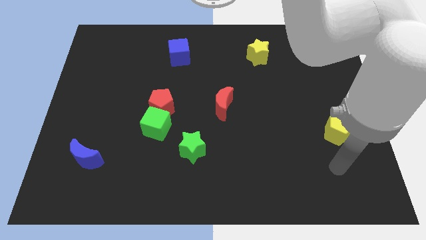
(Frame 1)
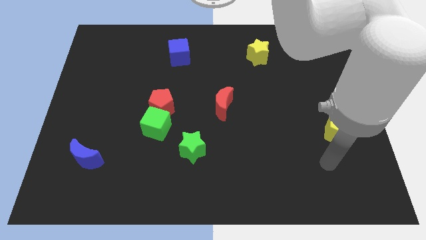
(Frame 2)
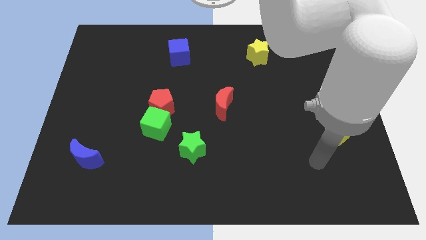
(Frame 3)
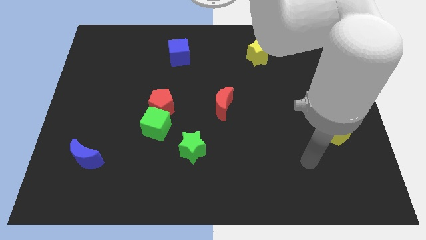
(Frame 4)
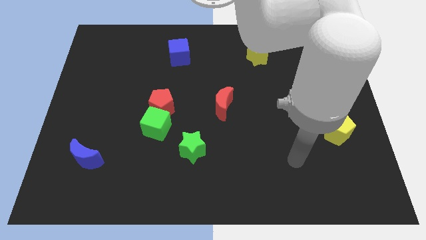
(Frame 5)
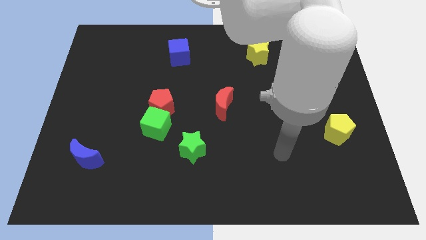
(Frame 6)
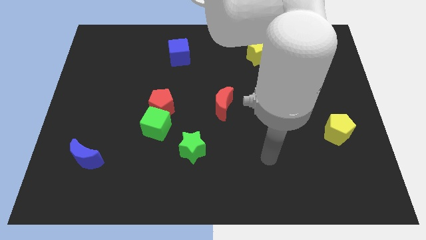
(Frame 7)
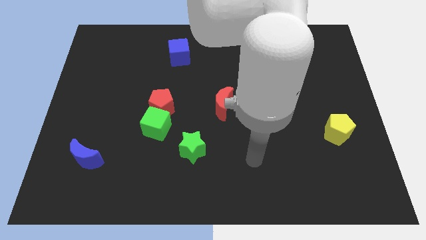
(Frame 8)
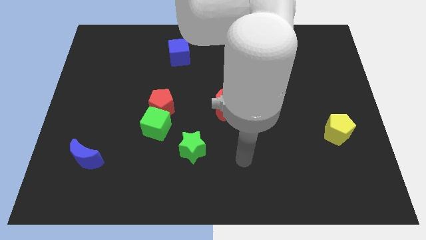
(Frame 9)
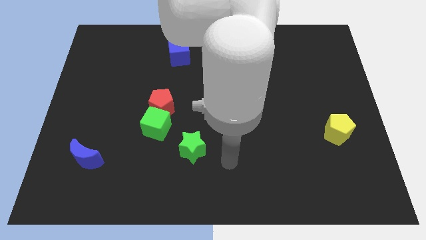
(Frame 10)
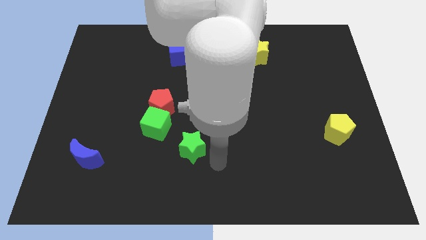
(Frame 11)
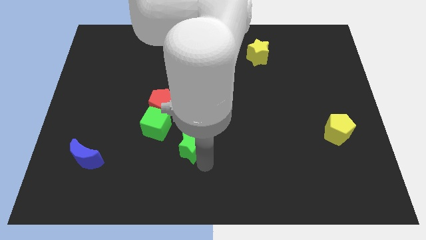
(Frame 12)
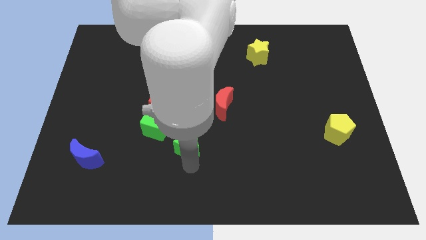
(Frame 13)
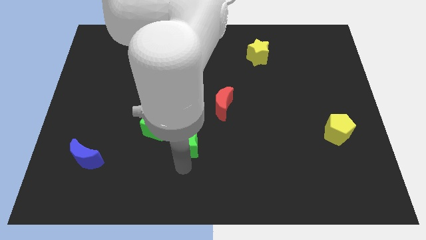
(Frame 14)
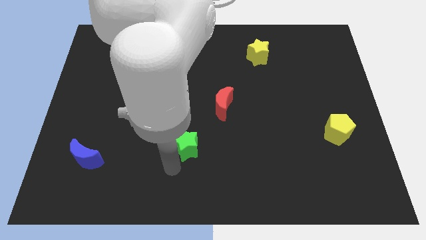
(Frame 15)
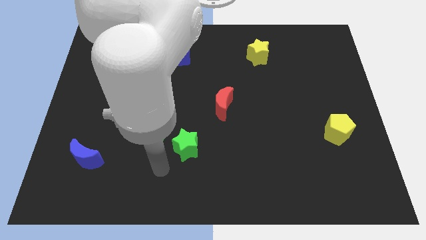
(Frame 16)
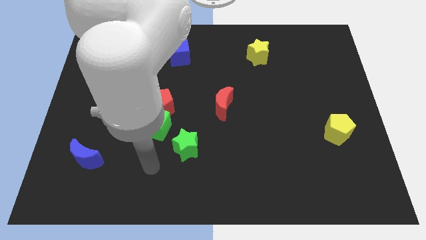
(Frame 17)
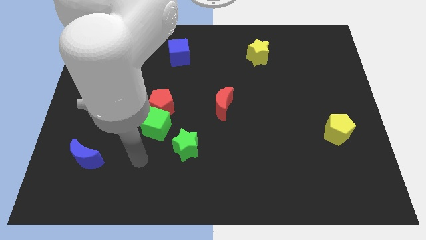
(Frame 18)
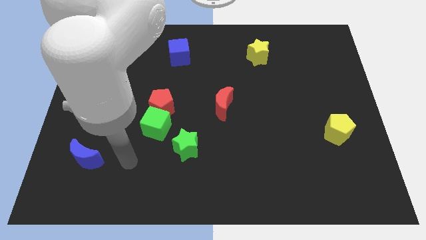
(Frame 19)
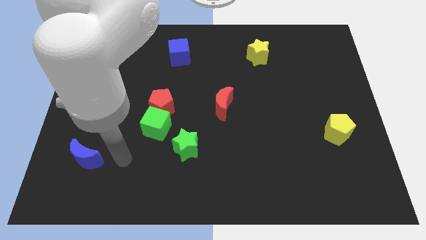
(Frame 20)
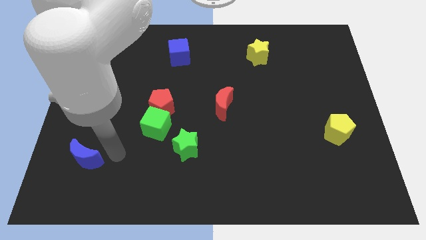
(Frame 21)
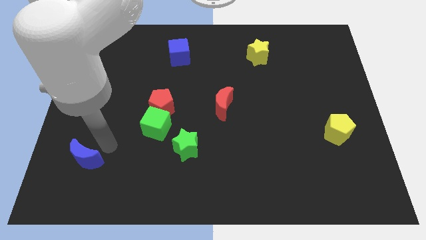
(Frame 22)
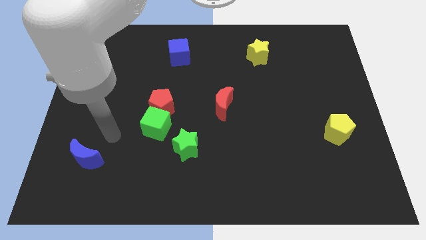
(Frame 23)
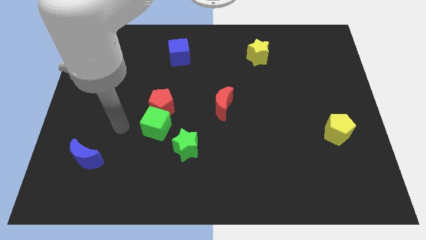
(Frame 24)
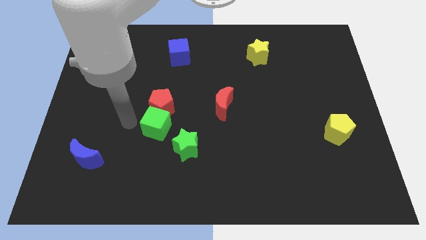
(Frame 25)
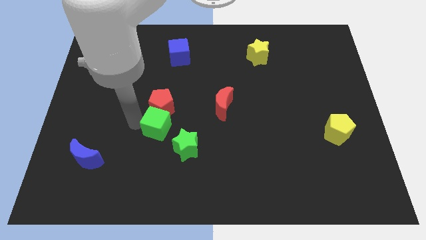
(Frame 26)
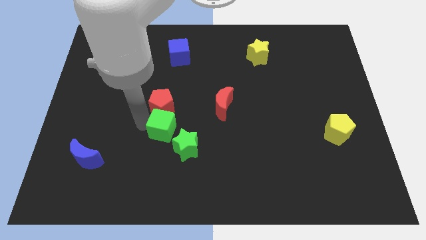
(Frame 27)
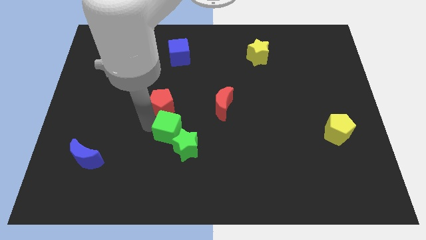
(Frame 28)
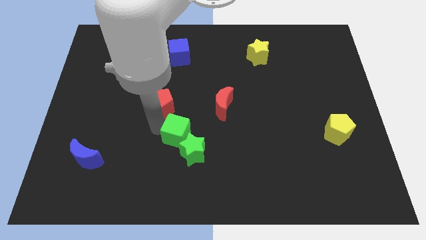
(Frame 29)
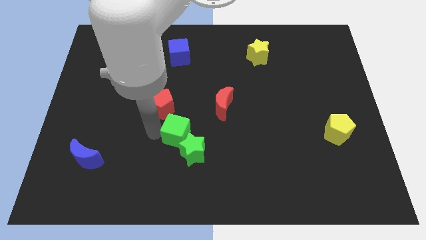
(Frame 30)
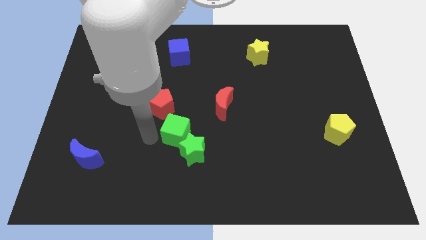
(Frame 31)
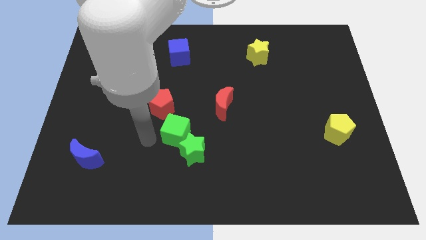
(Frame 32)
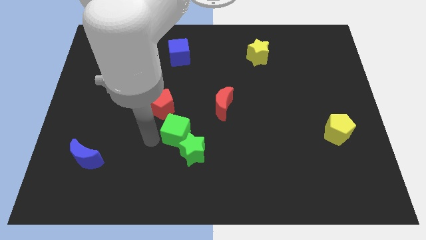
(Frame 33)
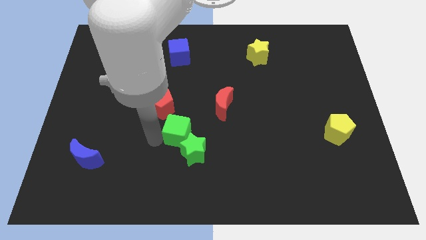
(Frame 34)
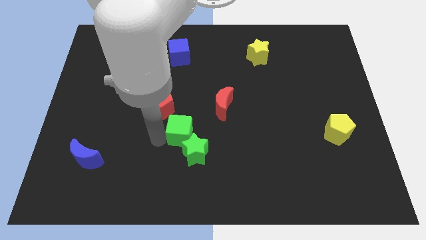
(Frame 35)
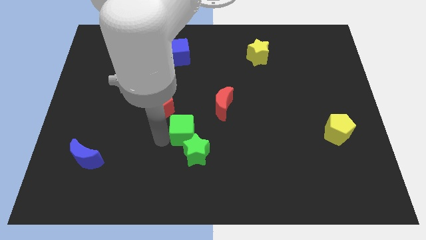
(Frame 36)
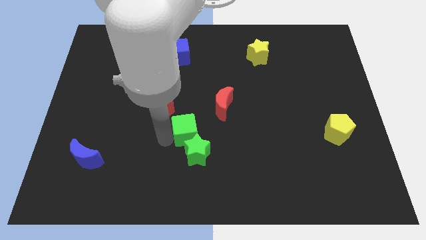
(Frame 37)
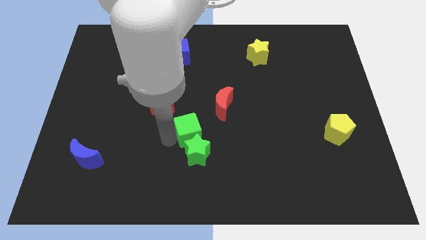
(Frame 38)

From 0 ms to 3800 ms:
slightly move the green cube right

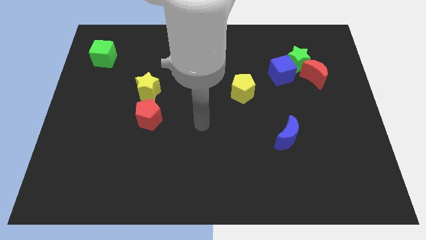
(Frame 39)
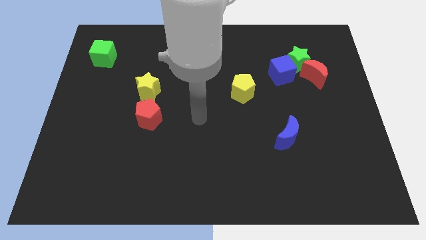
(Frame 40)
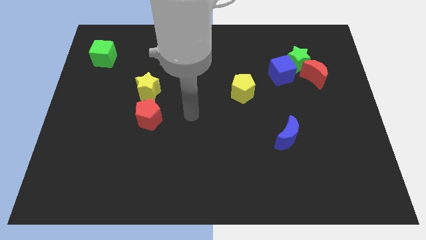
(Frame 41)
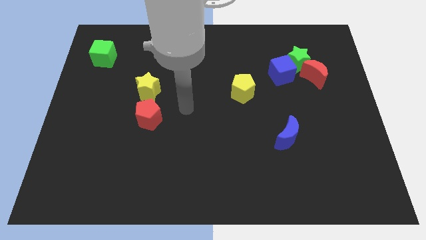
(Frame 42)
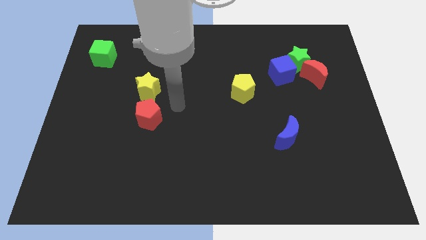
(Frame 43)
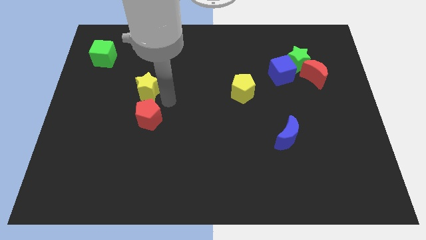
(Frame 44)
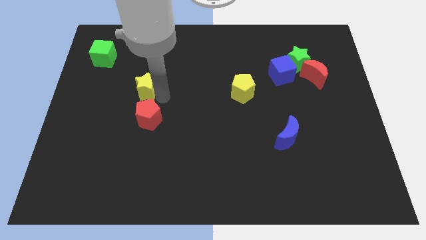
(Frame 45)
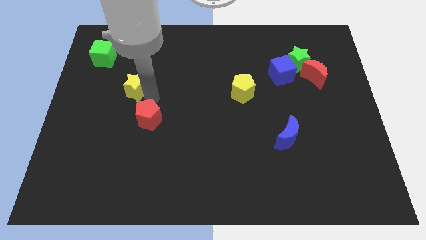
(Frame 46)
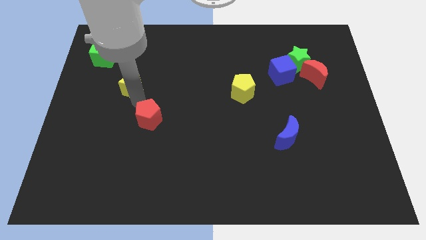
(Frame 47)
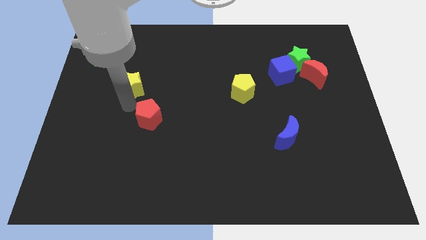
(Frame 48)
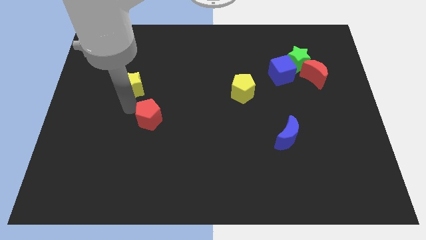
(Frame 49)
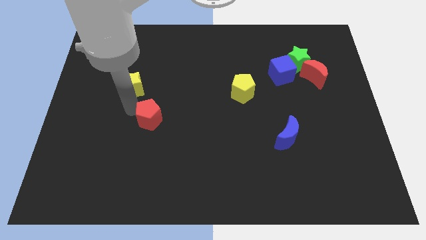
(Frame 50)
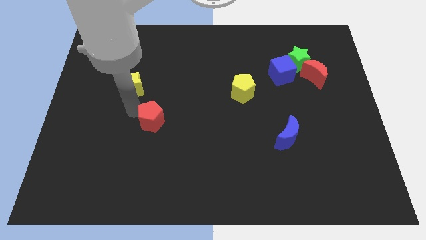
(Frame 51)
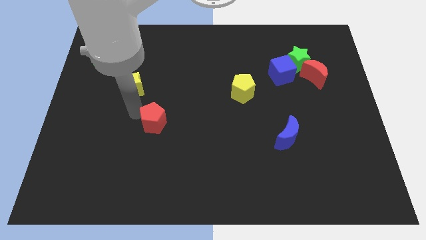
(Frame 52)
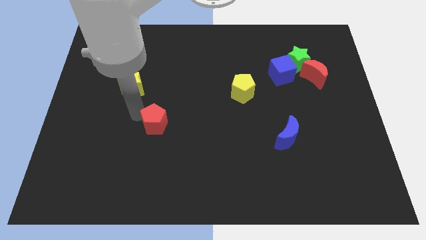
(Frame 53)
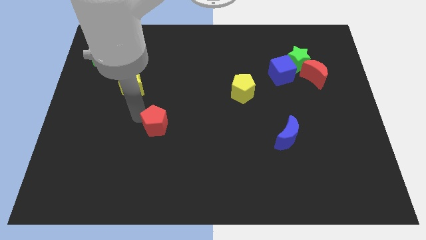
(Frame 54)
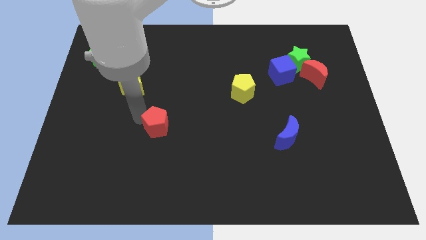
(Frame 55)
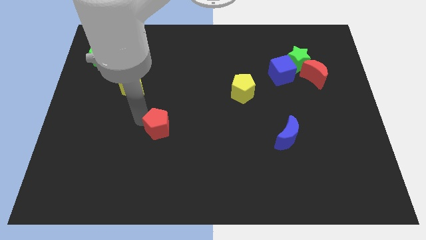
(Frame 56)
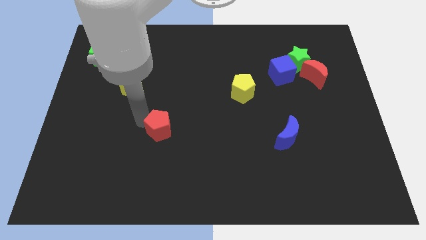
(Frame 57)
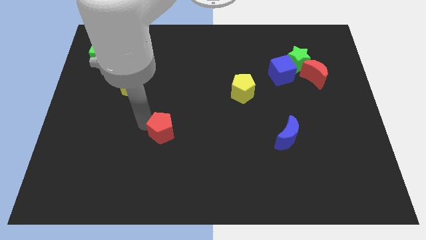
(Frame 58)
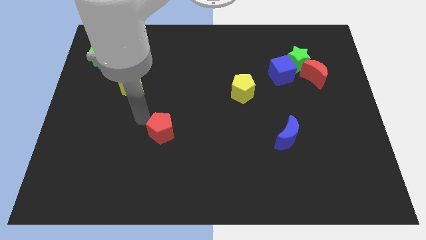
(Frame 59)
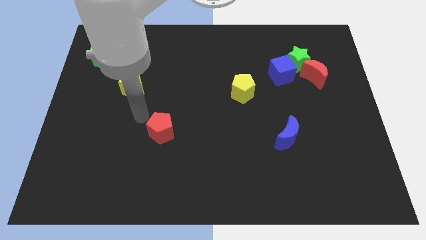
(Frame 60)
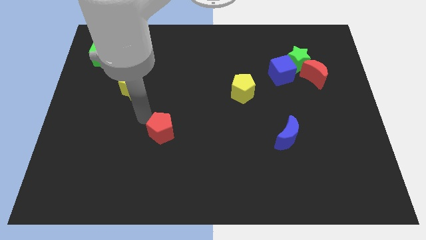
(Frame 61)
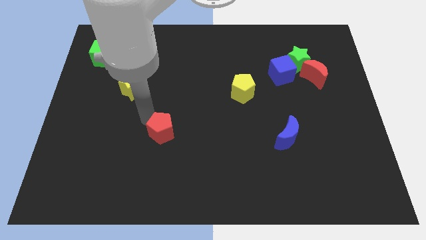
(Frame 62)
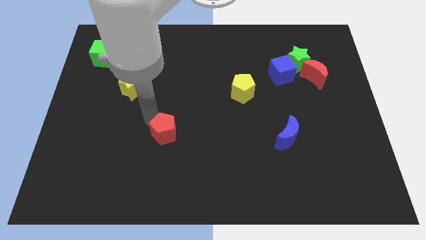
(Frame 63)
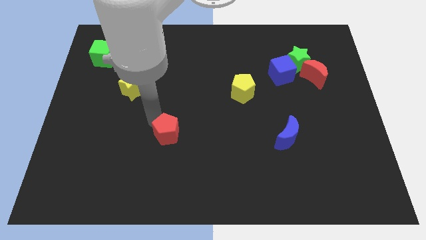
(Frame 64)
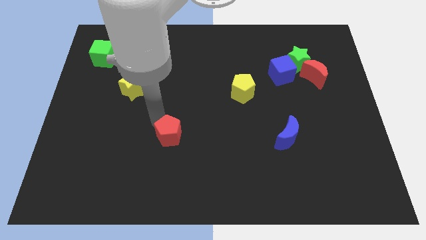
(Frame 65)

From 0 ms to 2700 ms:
move the red pentagon downwards and right diagonally a little bit

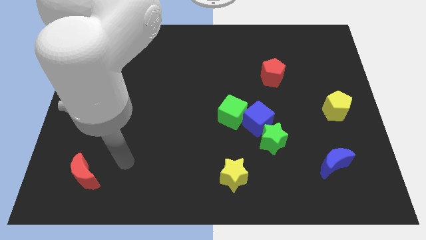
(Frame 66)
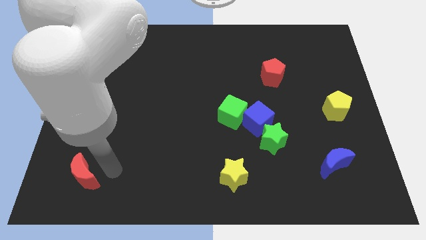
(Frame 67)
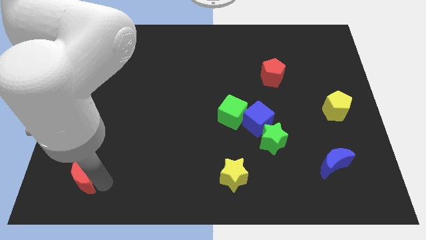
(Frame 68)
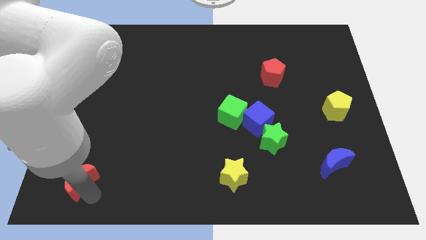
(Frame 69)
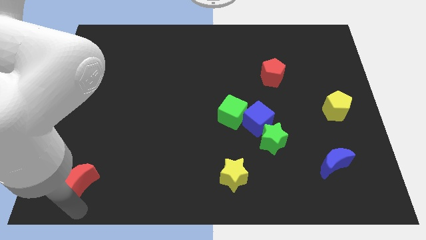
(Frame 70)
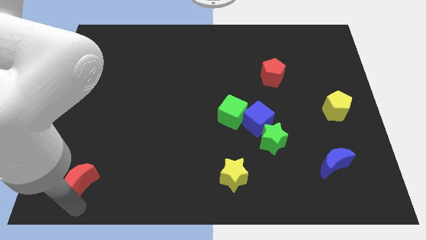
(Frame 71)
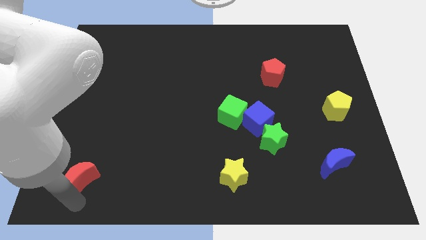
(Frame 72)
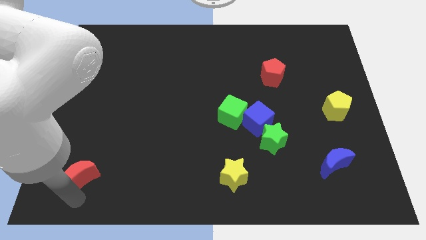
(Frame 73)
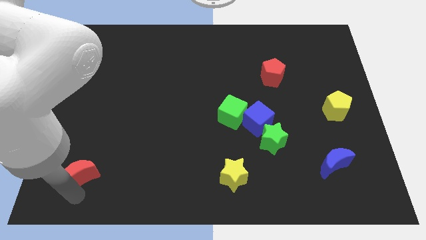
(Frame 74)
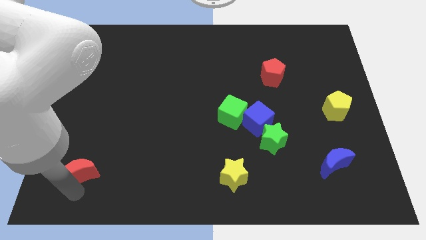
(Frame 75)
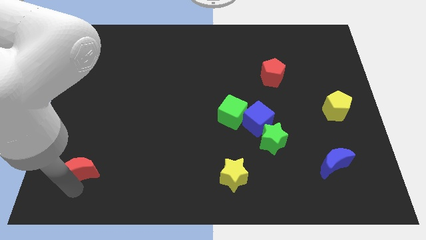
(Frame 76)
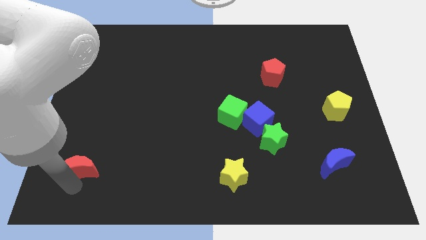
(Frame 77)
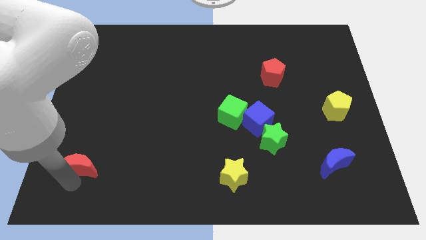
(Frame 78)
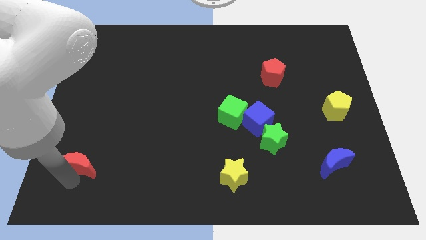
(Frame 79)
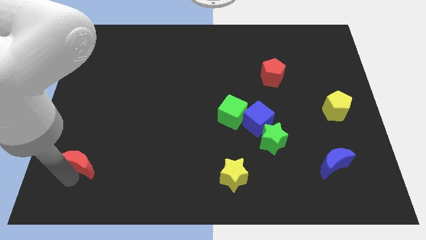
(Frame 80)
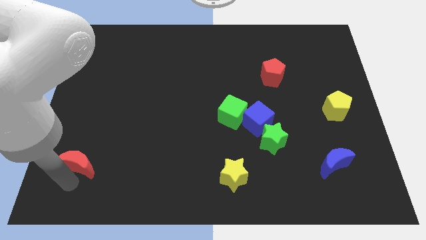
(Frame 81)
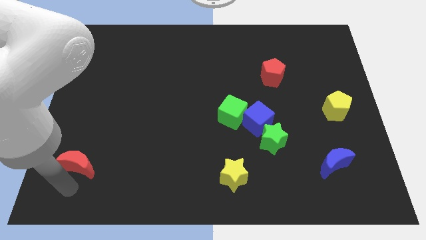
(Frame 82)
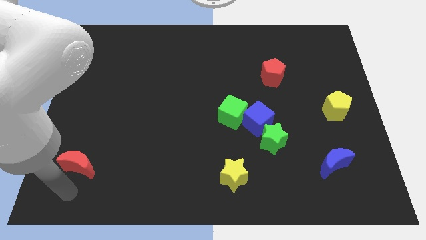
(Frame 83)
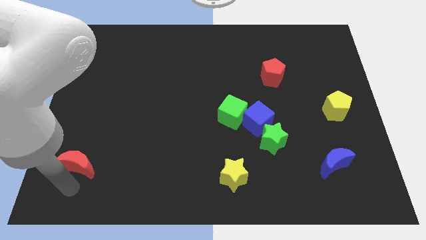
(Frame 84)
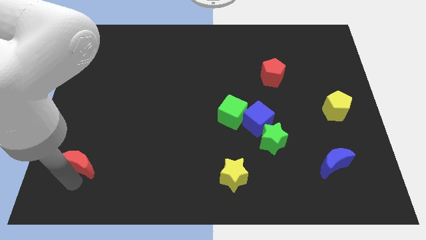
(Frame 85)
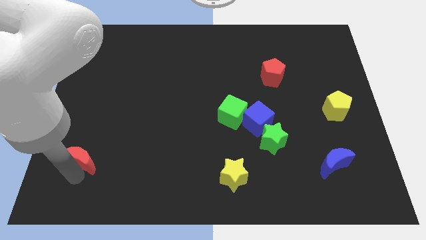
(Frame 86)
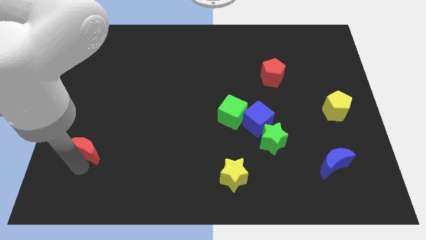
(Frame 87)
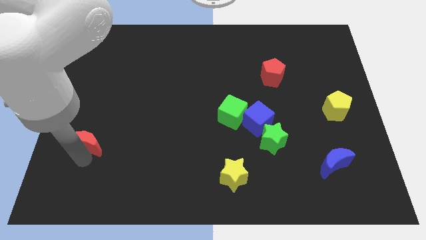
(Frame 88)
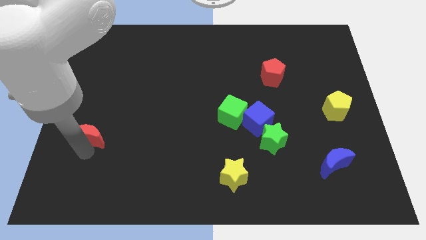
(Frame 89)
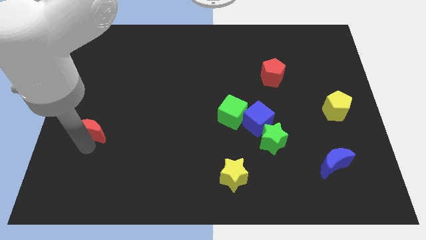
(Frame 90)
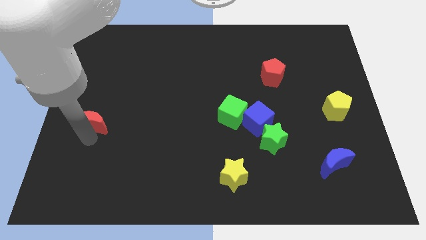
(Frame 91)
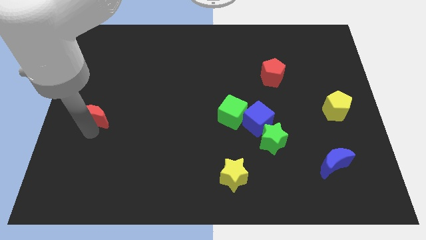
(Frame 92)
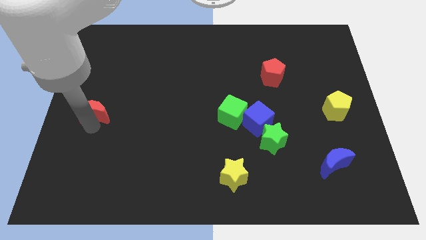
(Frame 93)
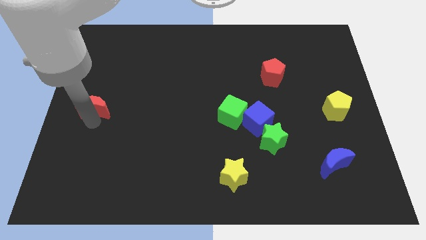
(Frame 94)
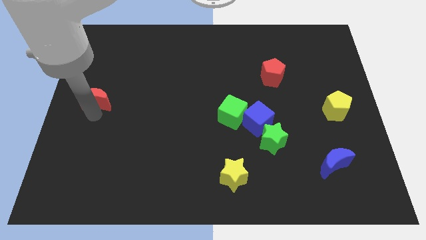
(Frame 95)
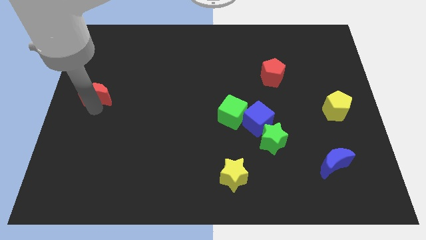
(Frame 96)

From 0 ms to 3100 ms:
slide the red moon upwards
